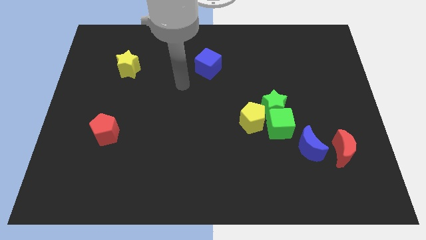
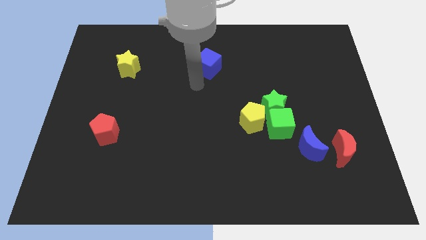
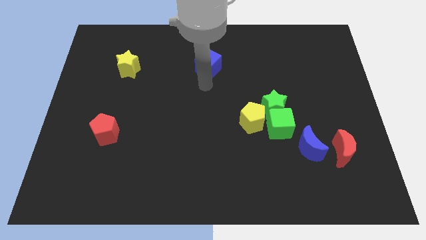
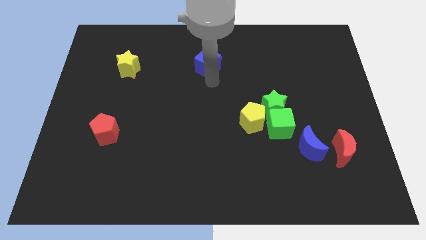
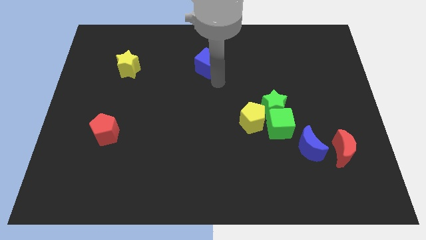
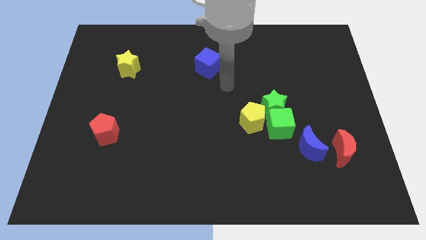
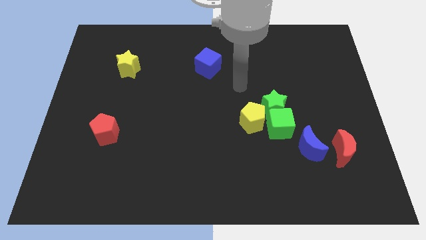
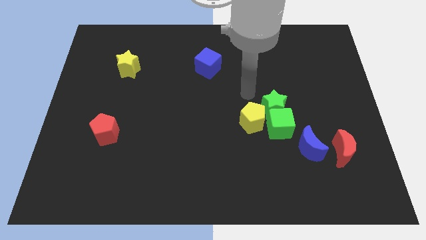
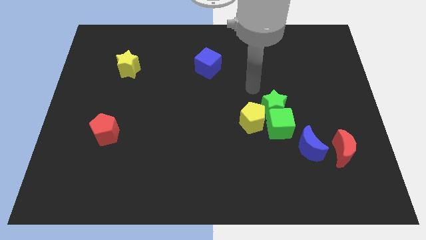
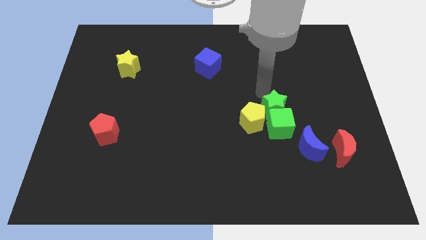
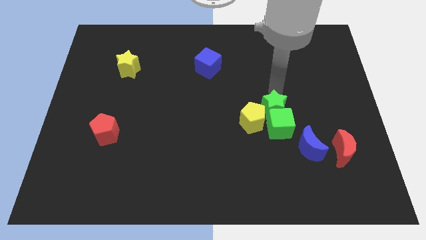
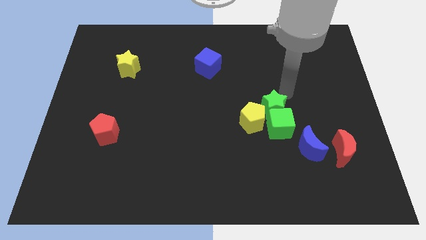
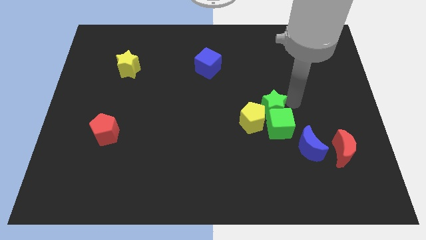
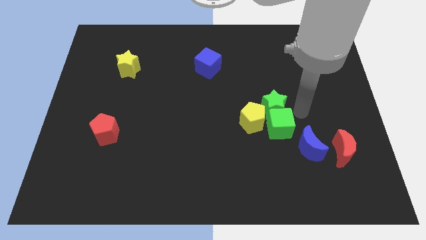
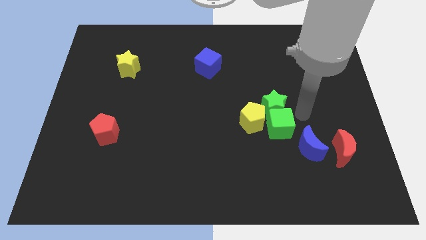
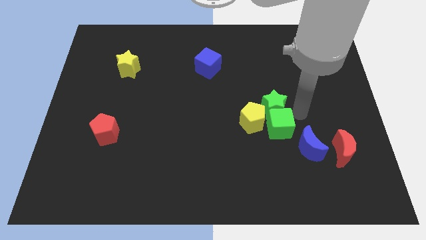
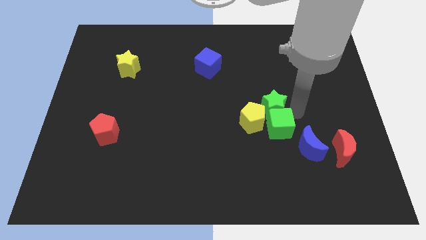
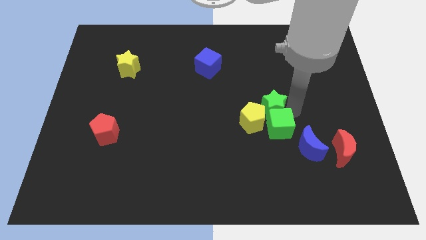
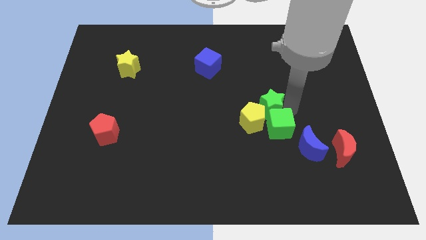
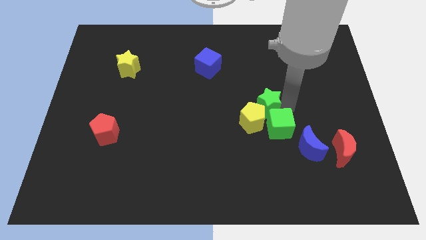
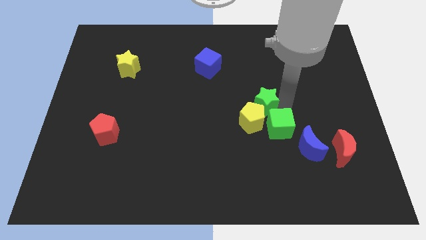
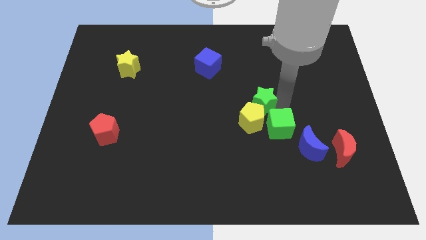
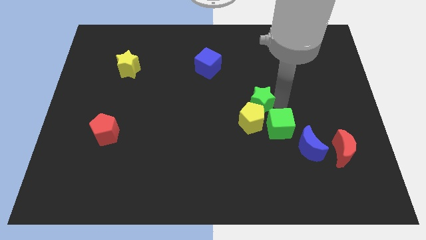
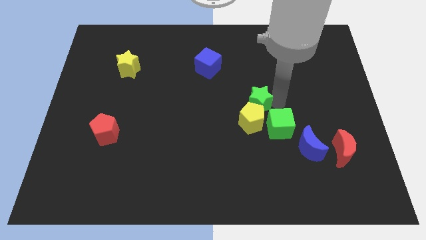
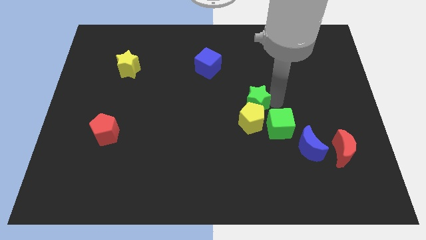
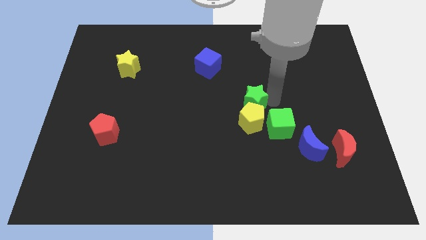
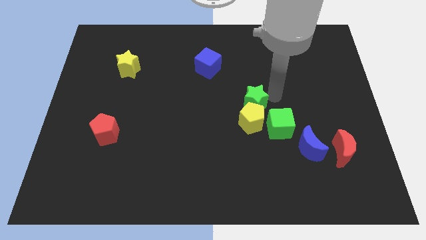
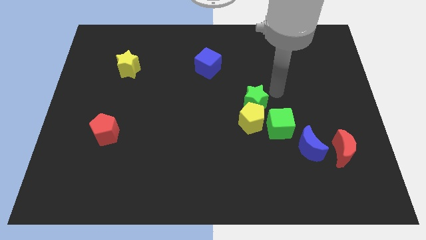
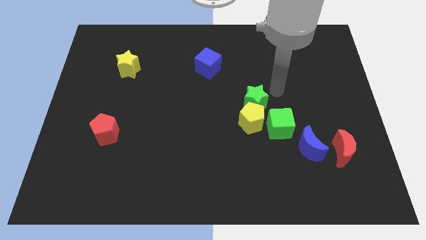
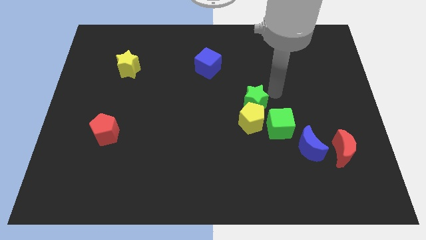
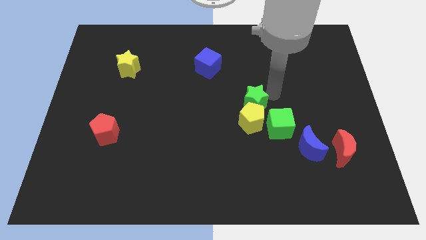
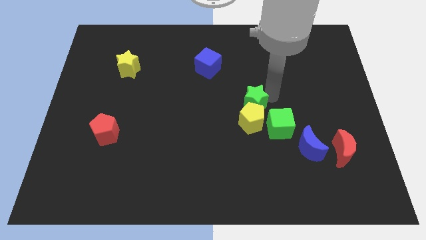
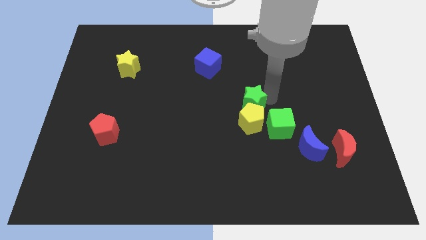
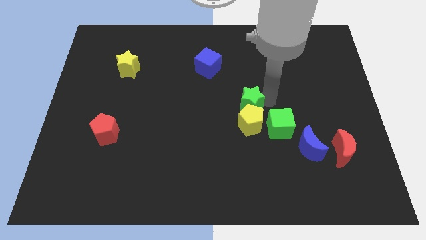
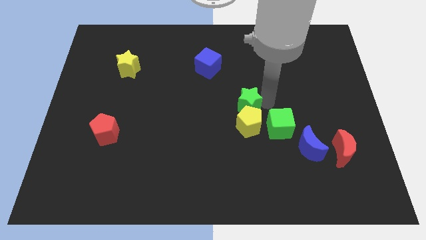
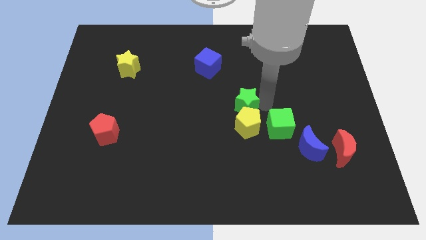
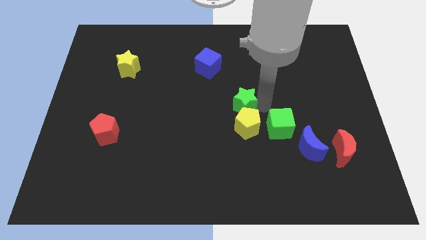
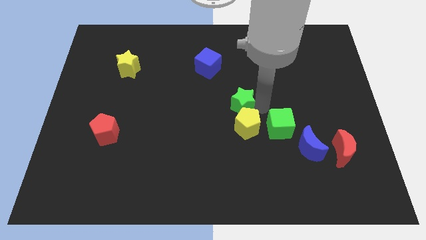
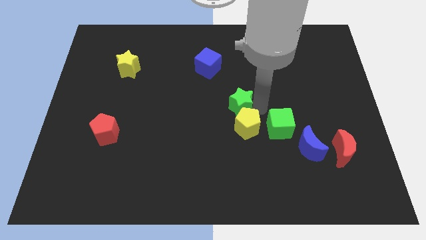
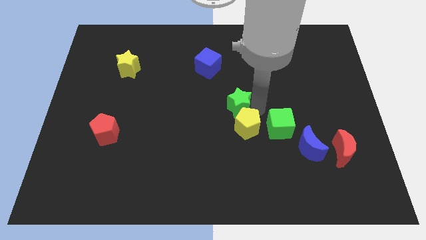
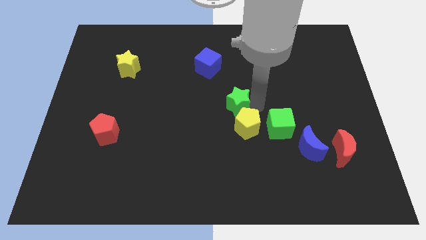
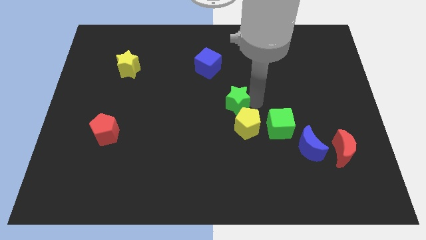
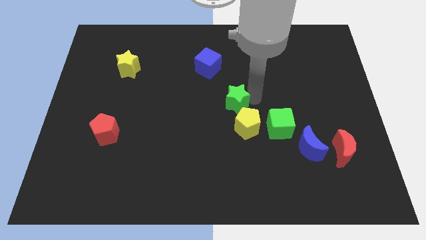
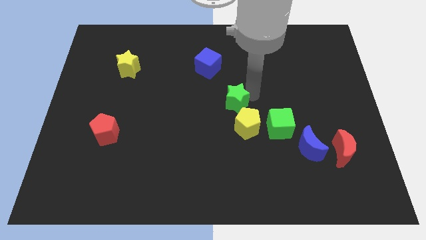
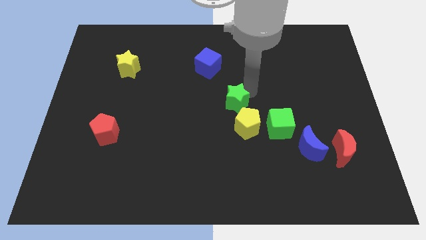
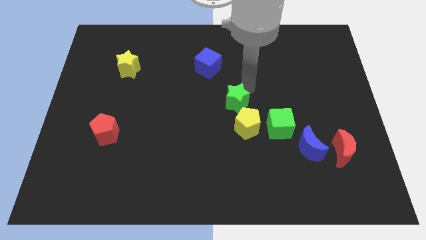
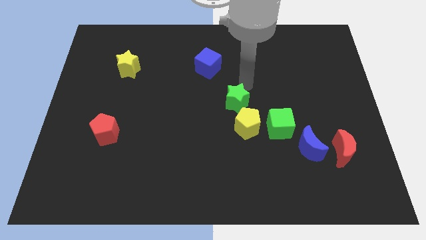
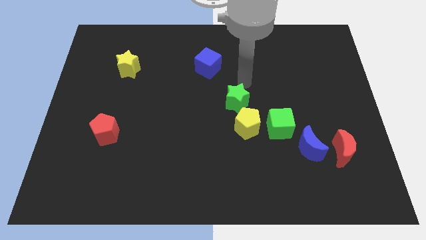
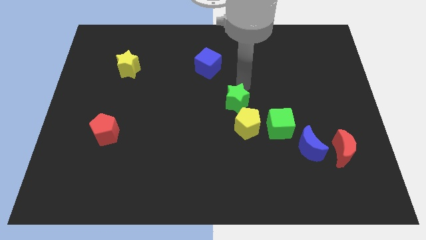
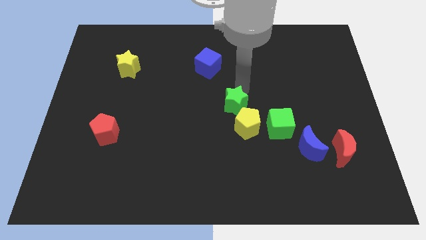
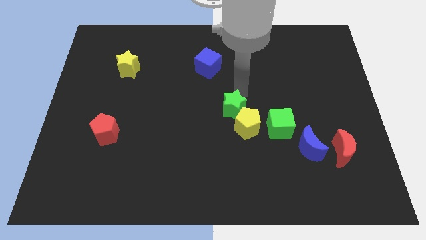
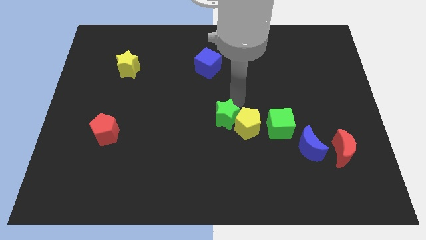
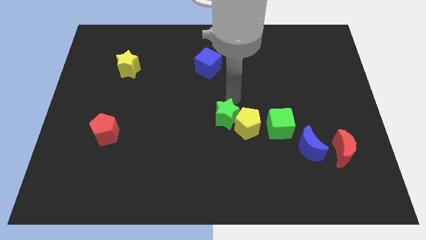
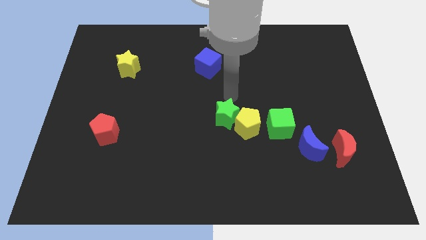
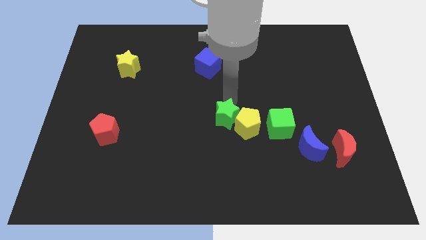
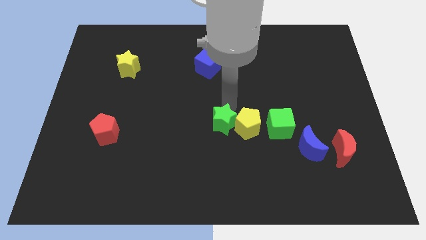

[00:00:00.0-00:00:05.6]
slide the green star to the bottom left side of the yellow pentagon

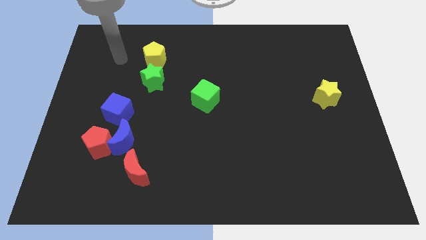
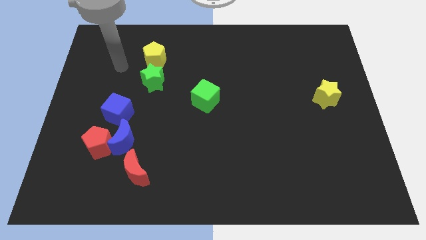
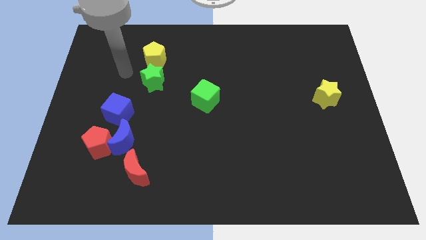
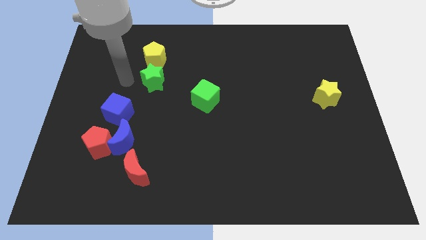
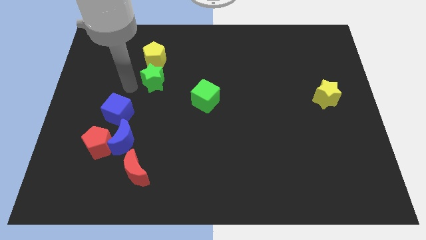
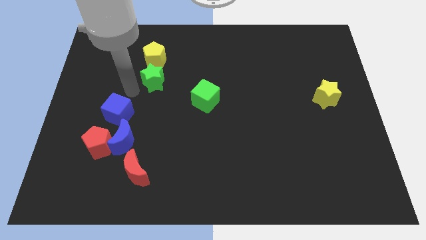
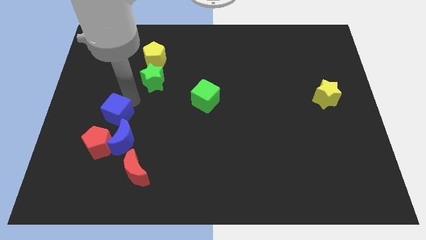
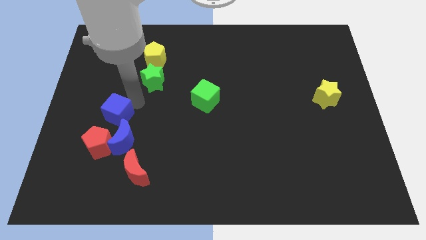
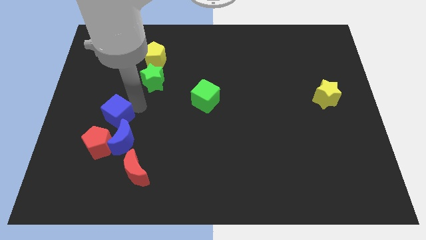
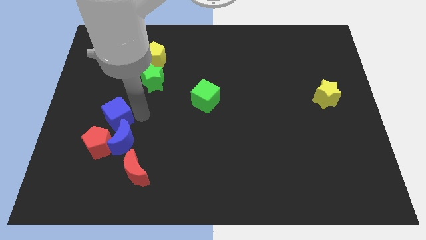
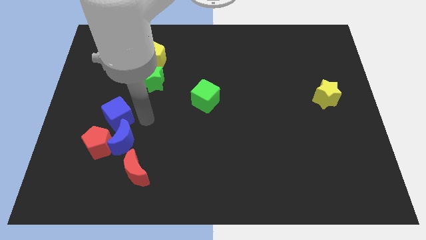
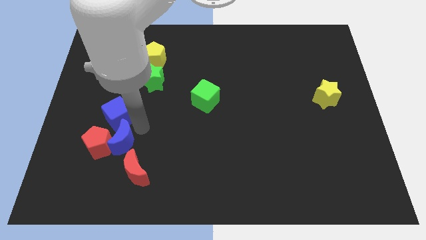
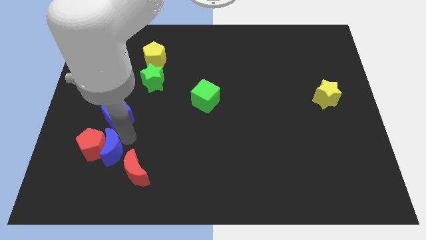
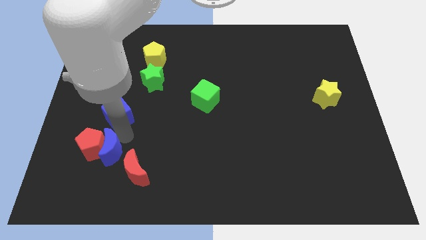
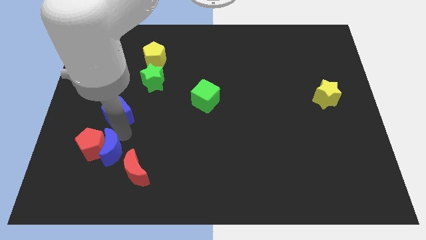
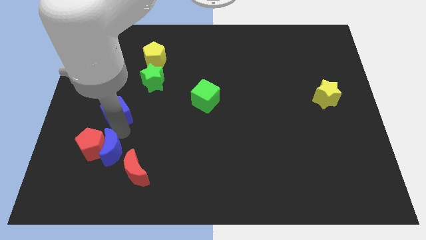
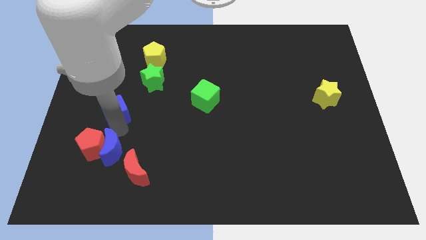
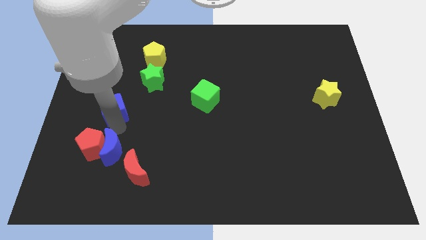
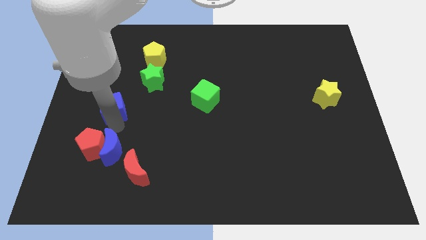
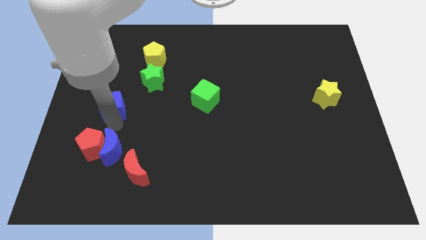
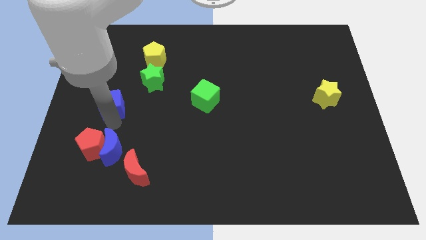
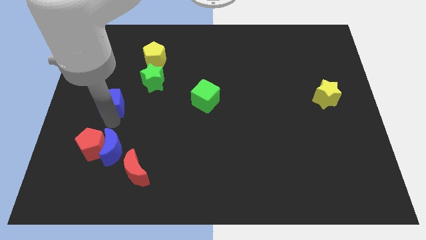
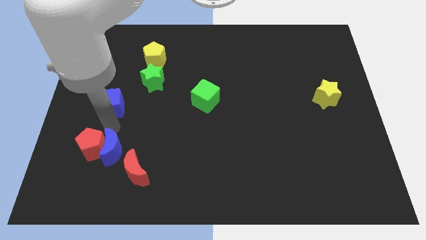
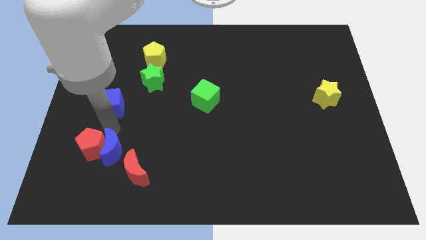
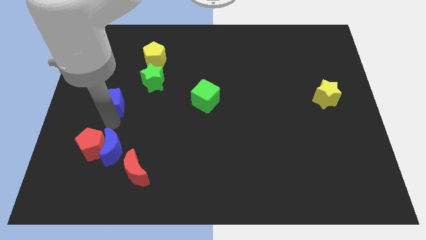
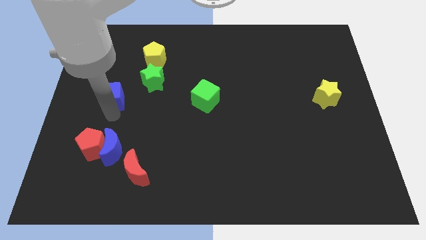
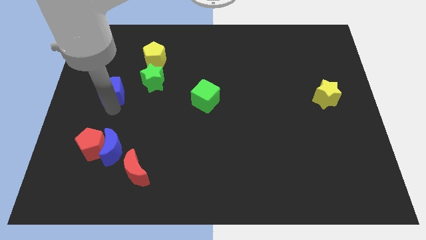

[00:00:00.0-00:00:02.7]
move the blue cube to the left of the green star
